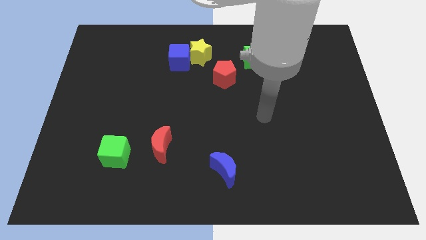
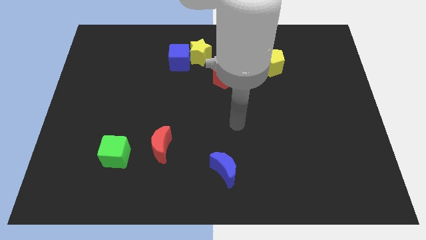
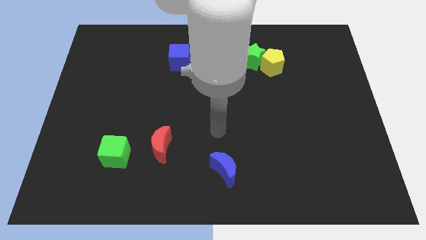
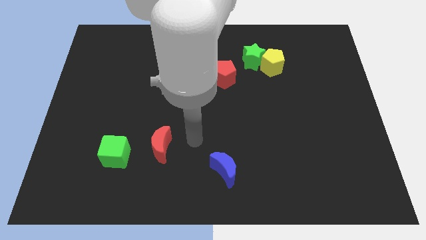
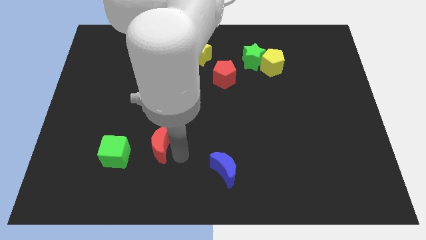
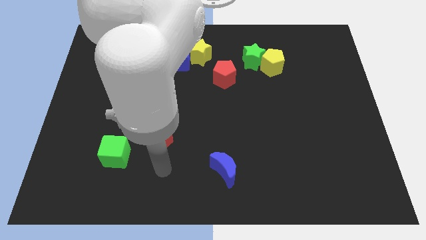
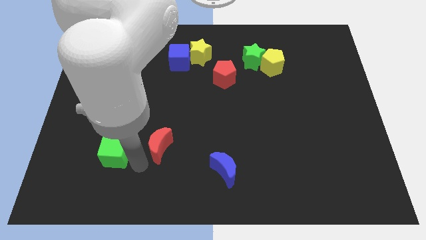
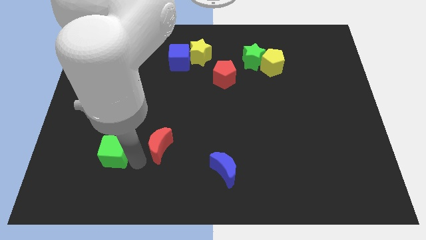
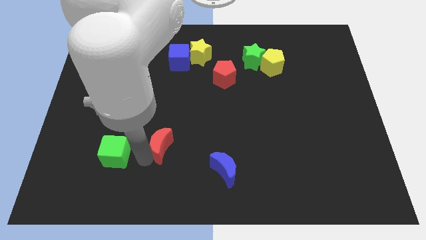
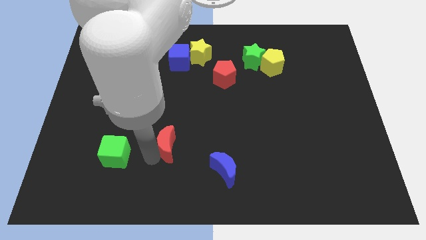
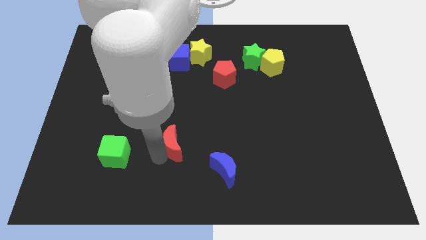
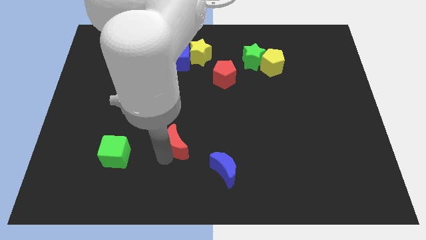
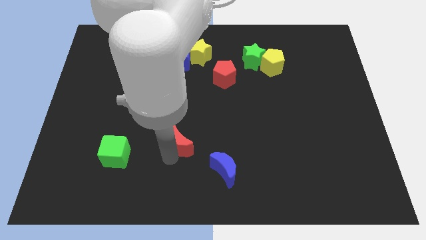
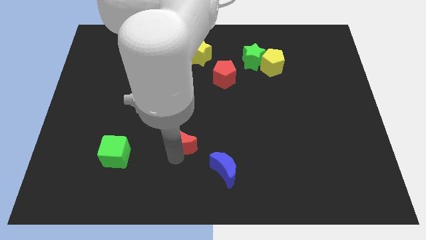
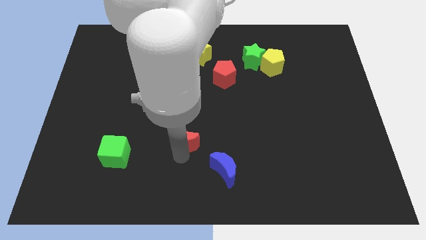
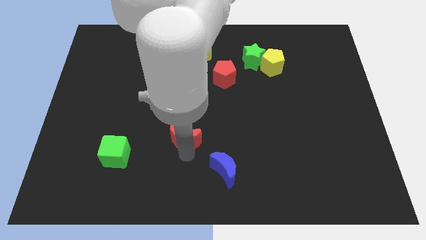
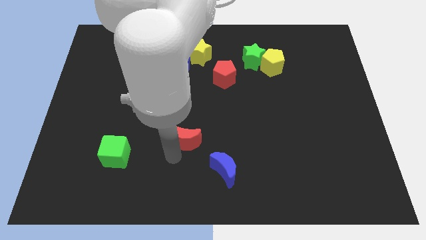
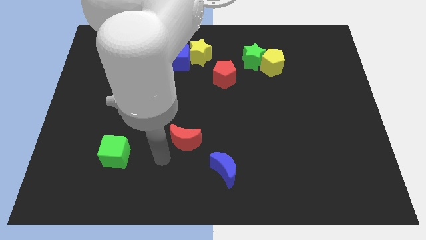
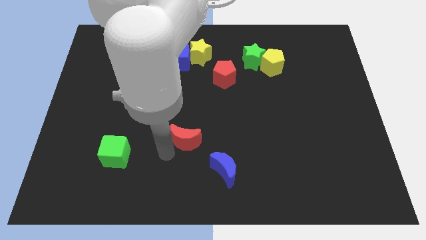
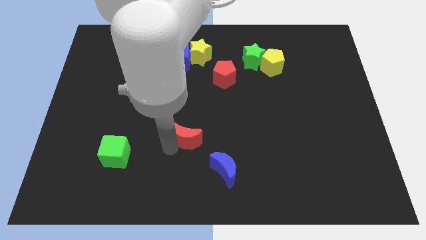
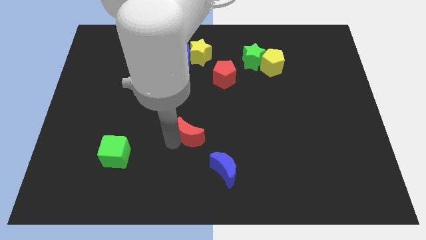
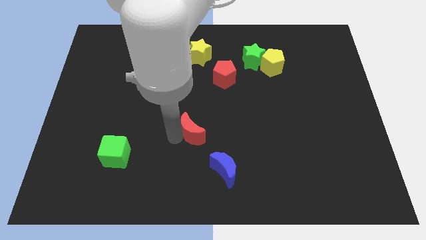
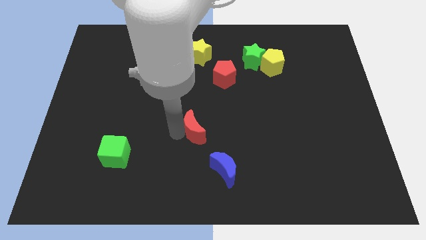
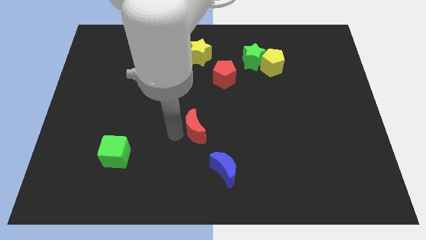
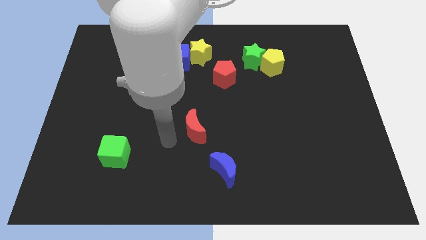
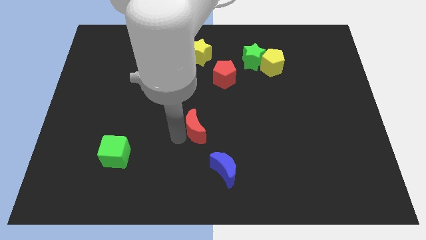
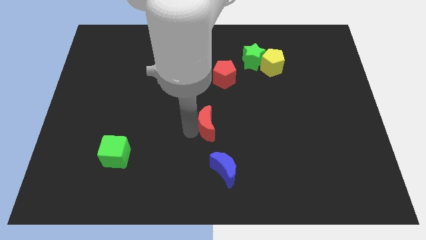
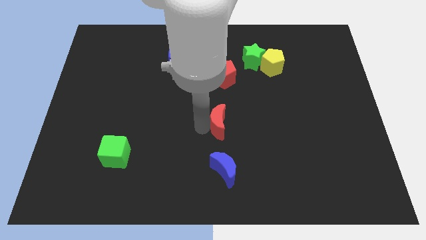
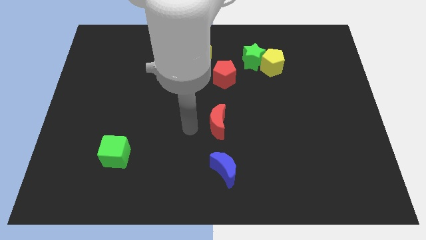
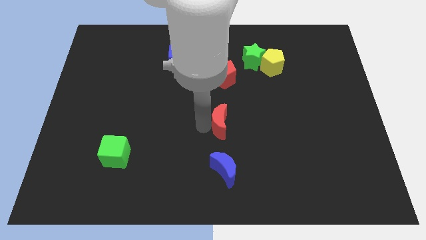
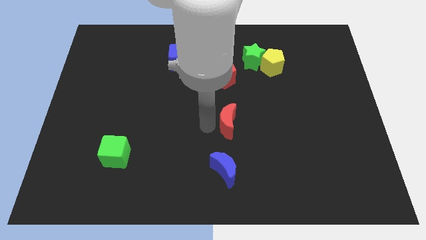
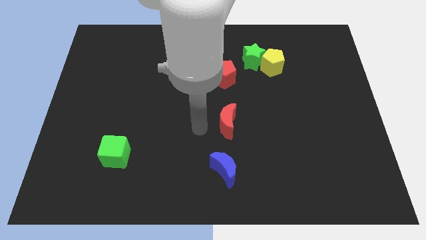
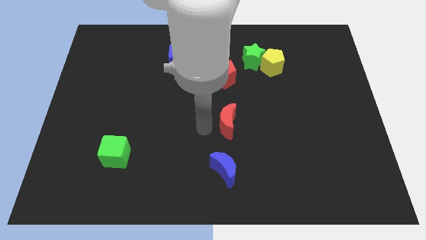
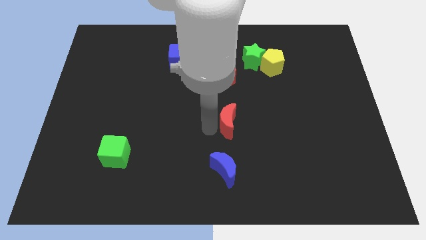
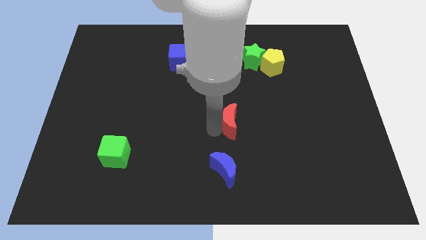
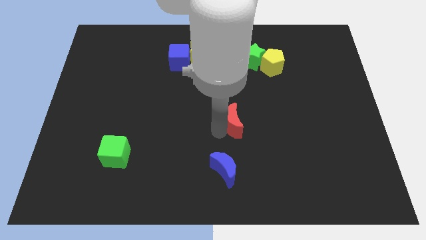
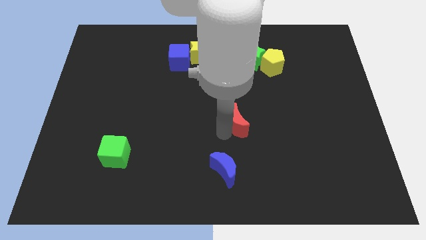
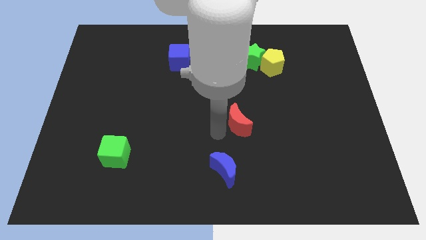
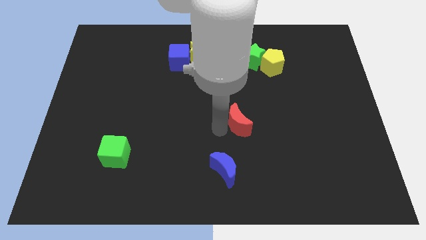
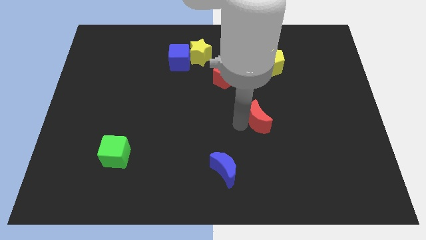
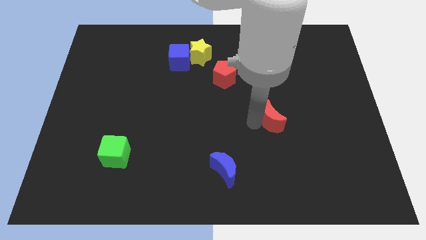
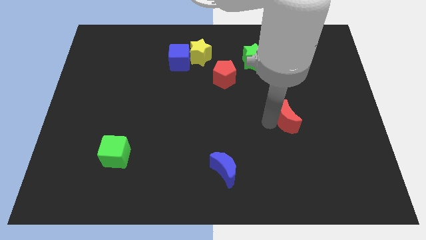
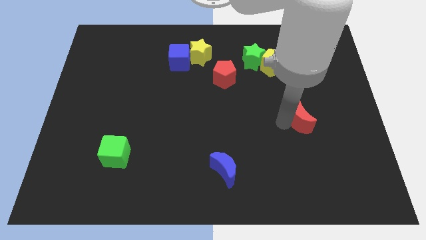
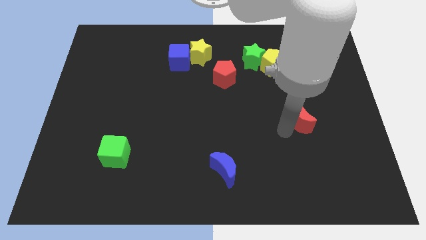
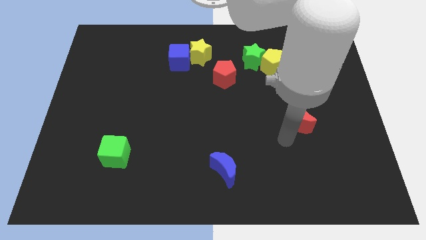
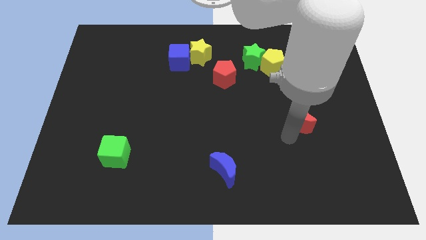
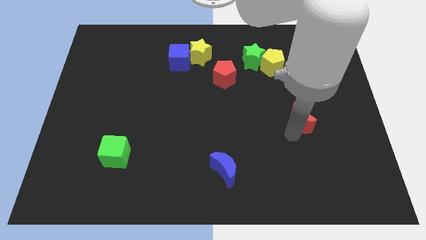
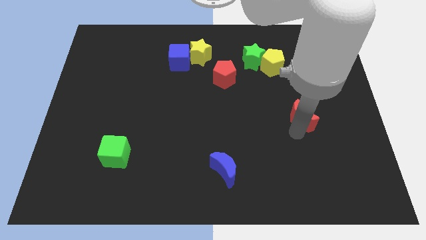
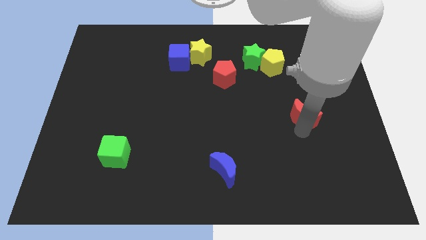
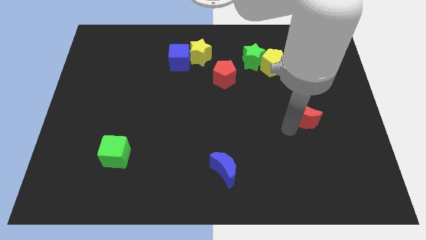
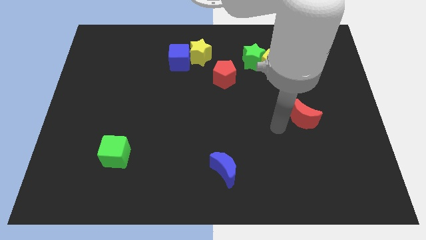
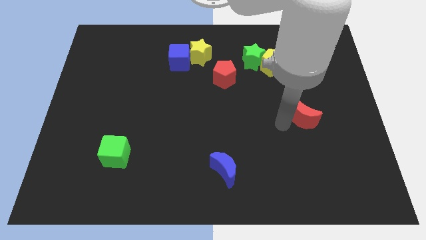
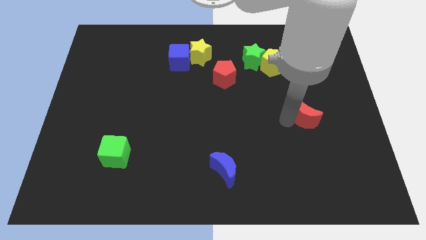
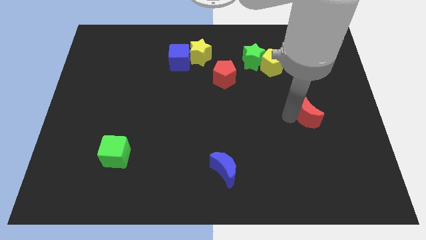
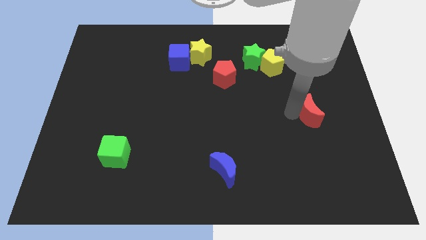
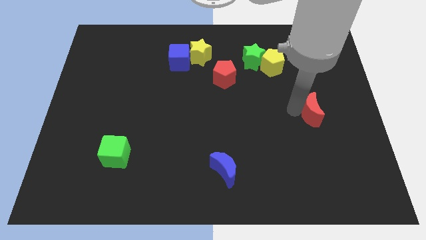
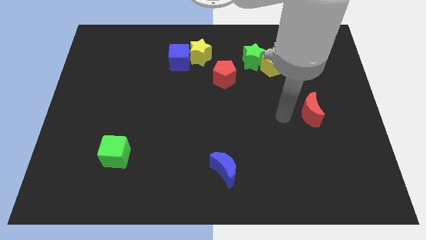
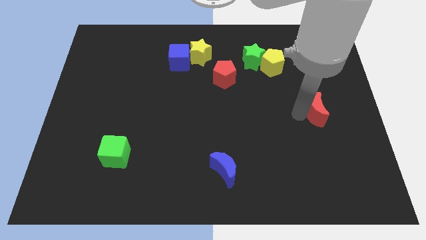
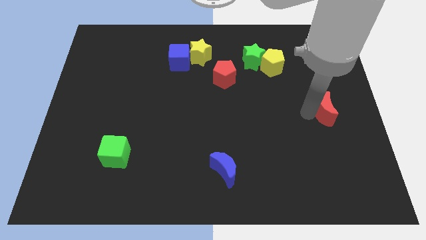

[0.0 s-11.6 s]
push the red moon to the right side

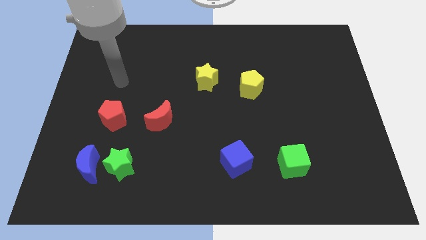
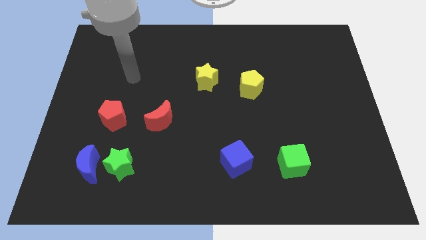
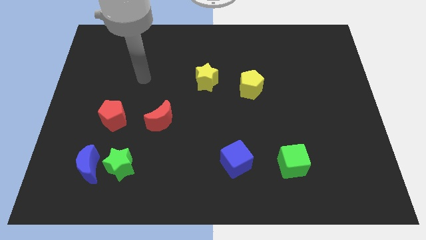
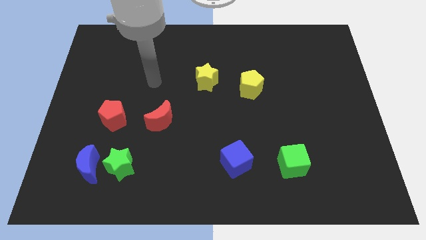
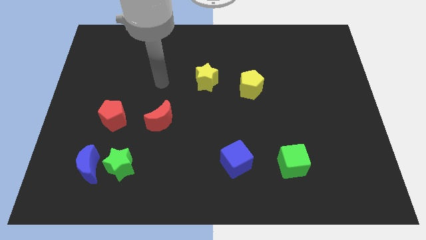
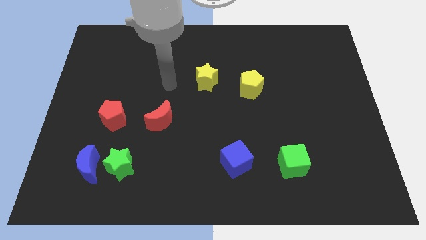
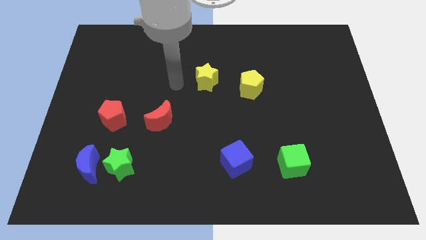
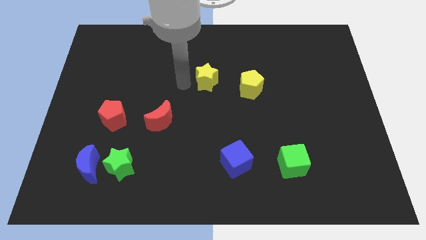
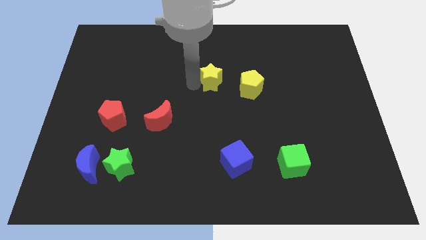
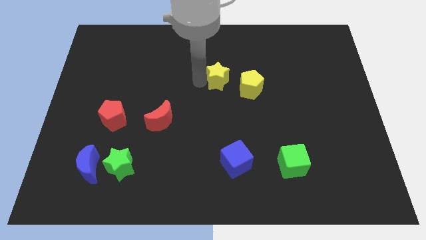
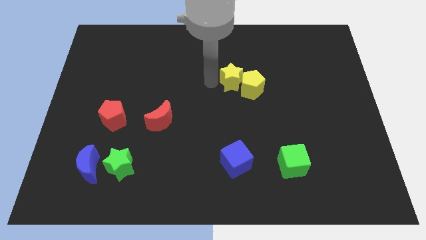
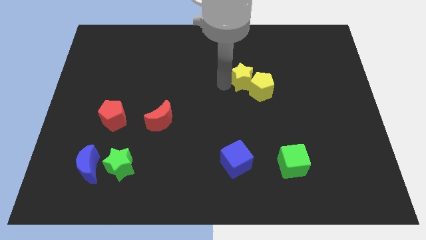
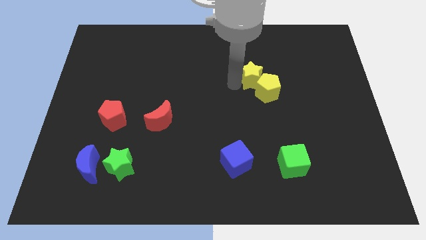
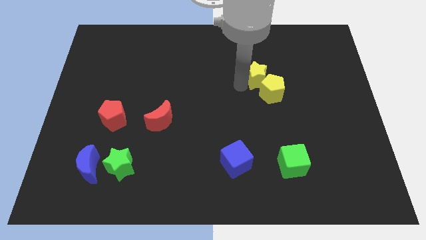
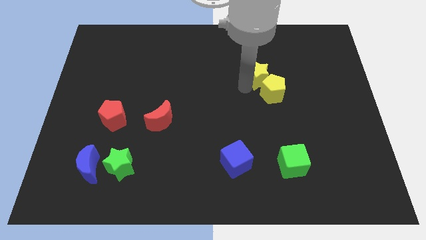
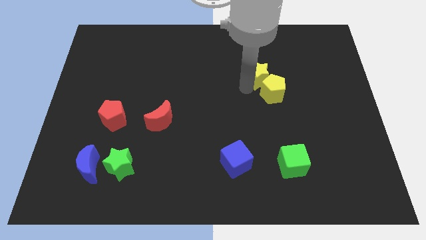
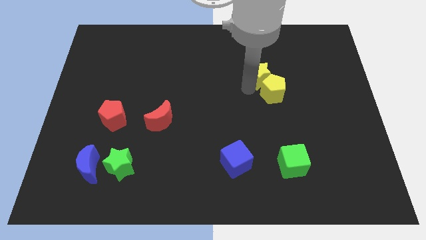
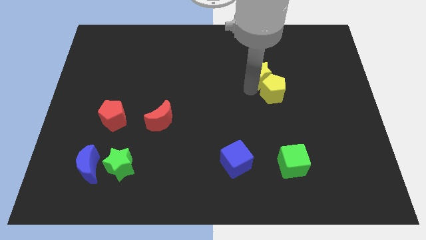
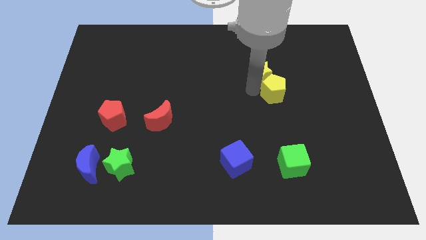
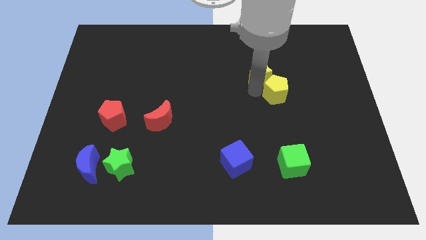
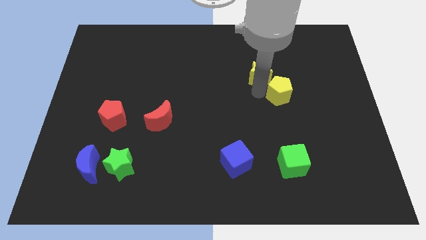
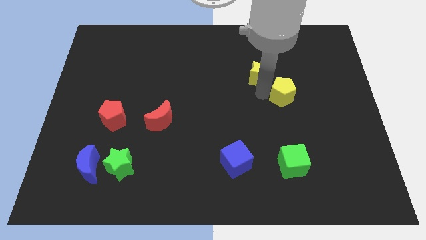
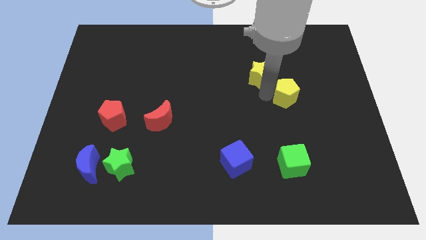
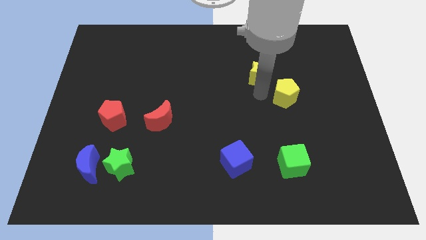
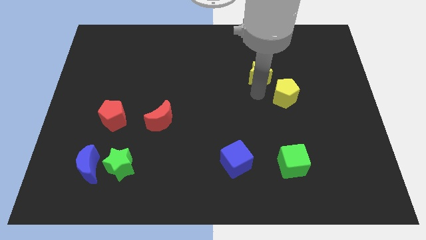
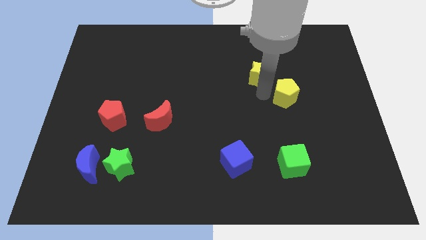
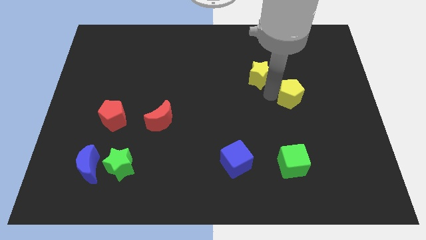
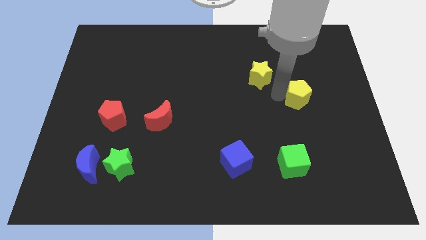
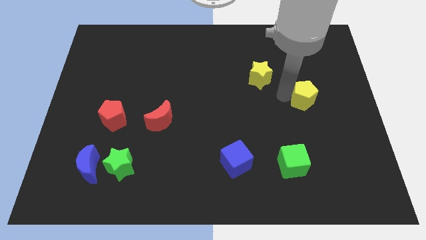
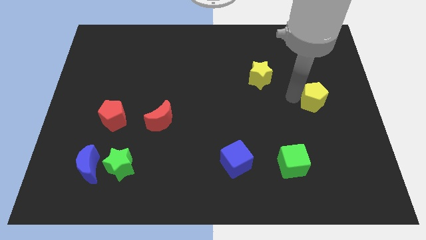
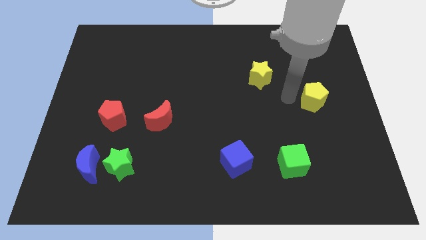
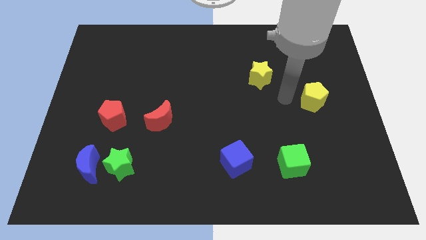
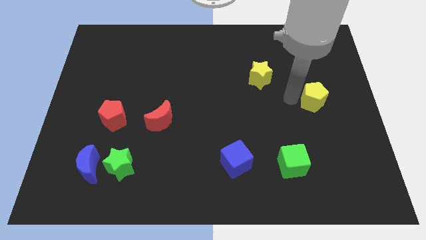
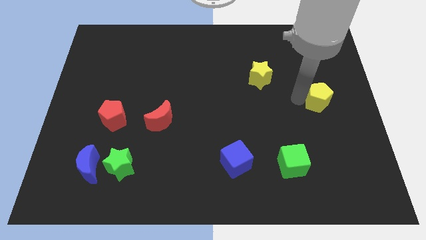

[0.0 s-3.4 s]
move the yellow pentagon to the center right
